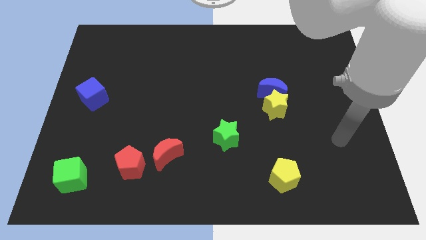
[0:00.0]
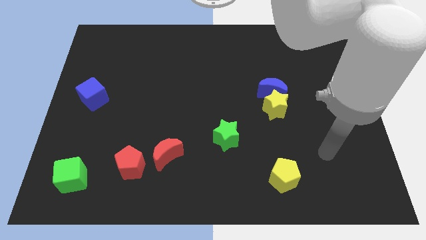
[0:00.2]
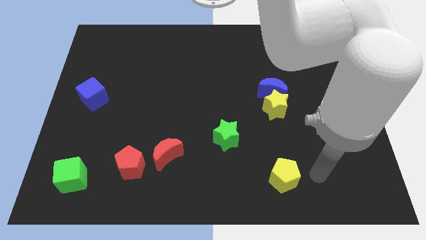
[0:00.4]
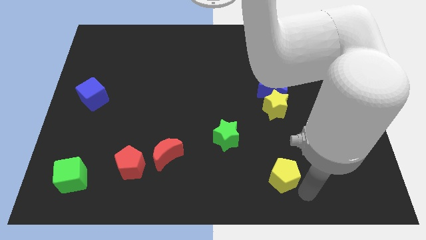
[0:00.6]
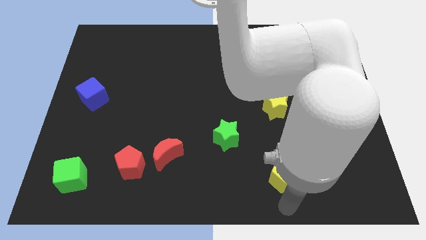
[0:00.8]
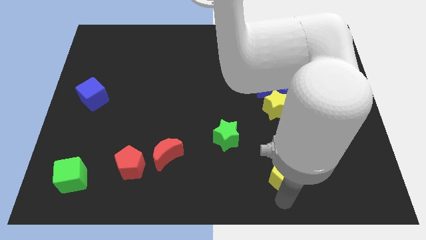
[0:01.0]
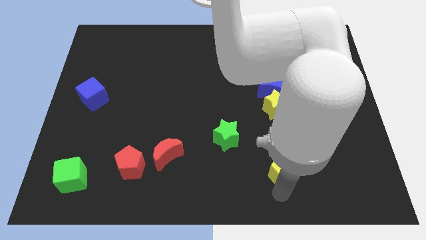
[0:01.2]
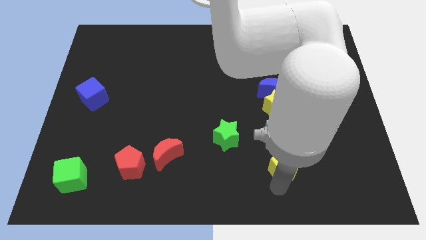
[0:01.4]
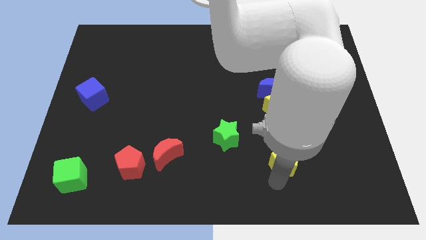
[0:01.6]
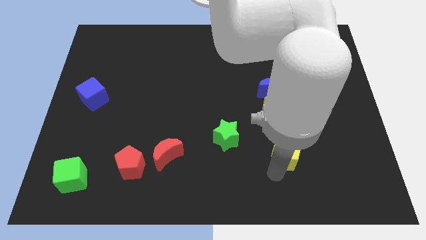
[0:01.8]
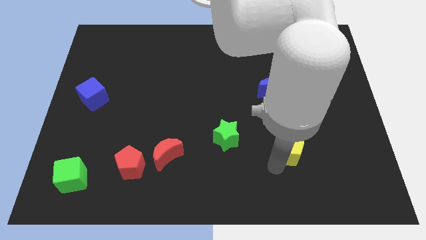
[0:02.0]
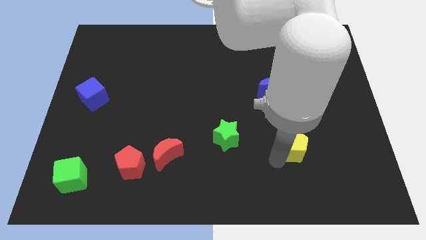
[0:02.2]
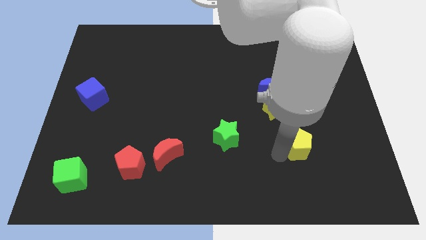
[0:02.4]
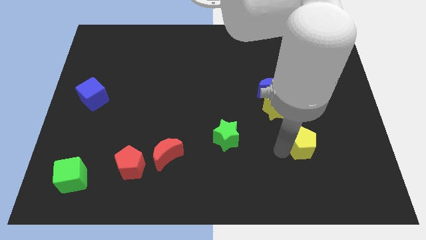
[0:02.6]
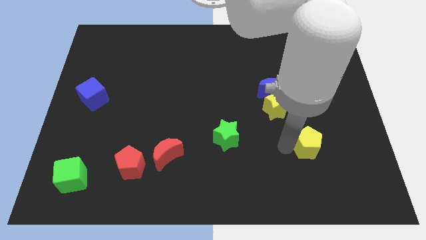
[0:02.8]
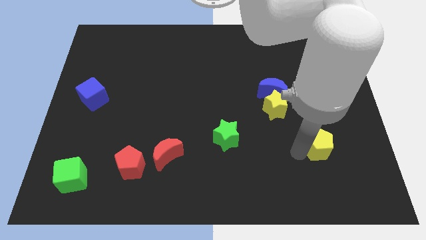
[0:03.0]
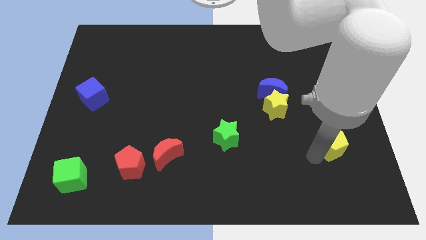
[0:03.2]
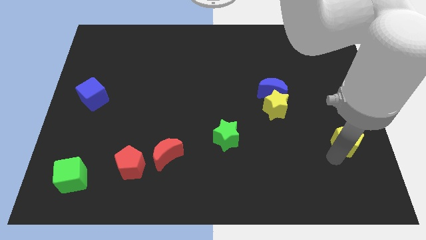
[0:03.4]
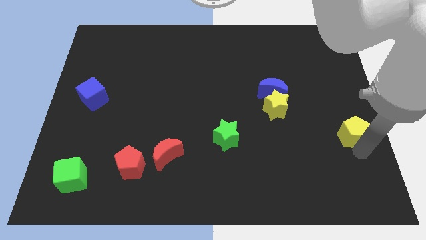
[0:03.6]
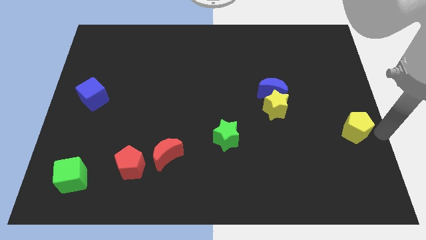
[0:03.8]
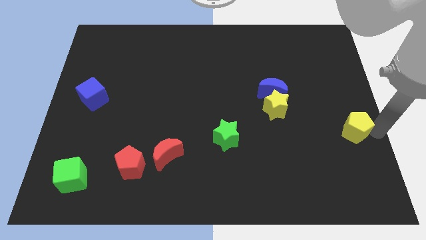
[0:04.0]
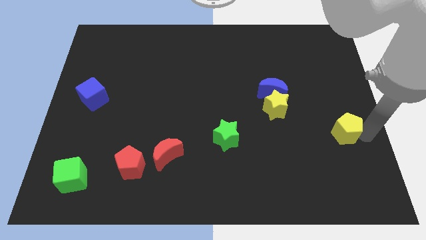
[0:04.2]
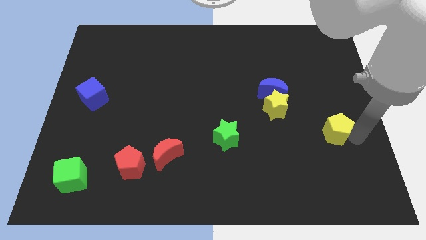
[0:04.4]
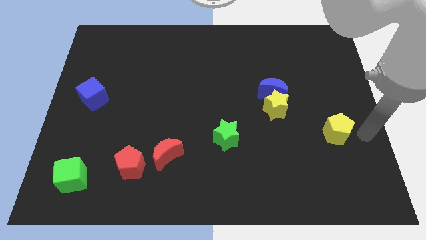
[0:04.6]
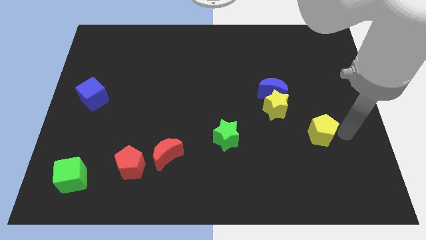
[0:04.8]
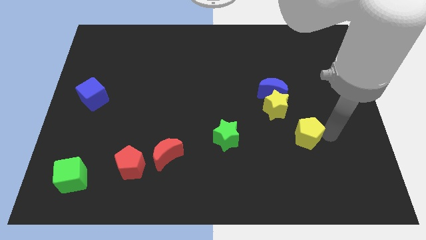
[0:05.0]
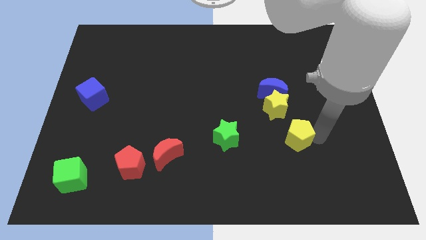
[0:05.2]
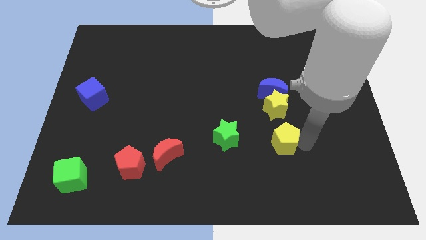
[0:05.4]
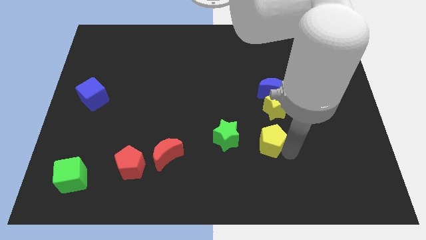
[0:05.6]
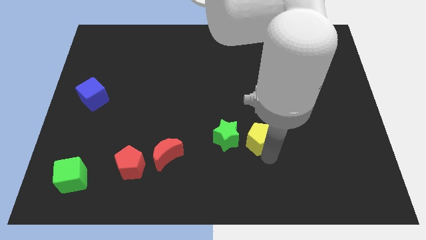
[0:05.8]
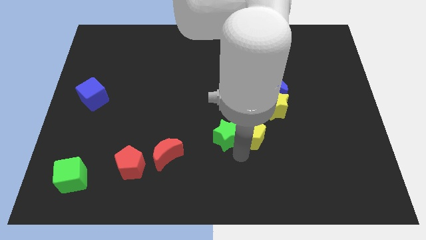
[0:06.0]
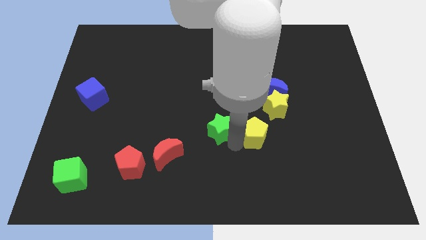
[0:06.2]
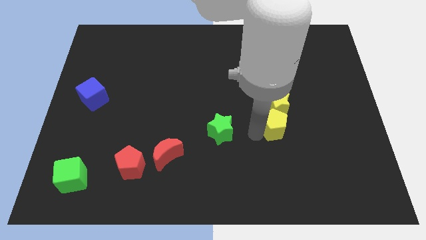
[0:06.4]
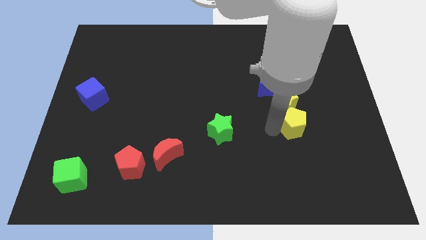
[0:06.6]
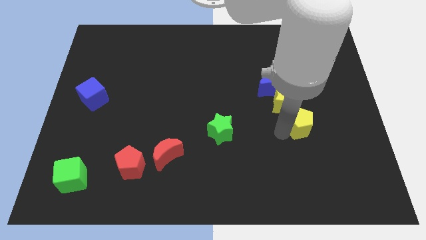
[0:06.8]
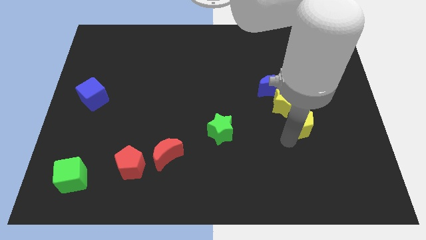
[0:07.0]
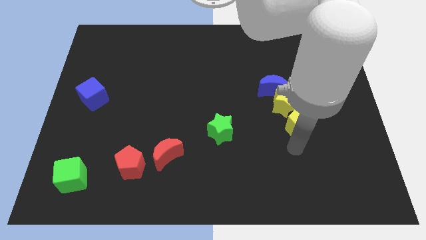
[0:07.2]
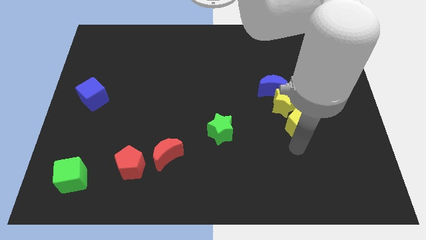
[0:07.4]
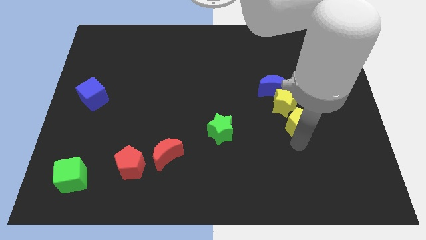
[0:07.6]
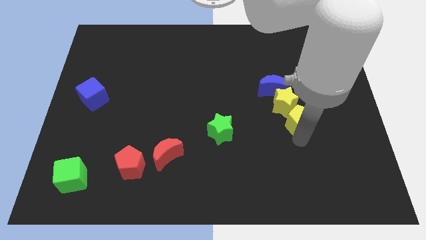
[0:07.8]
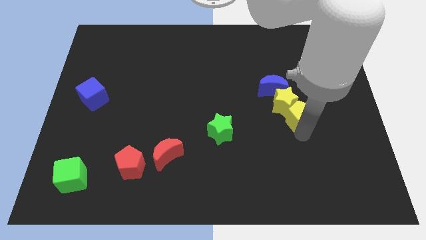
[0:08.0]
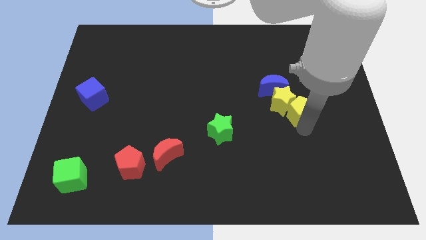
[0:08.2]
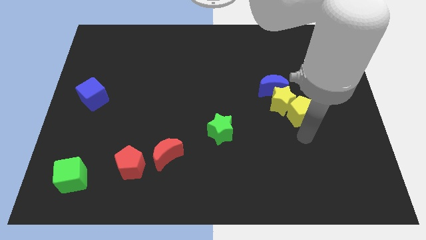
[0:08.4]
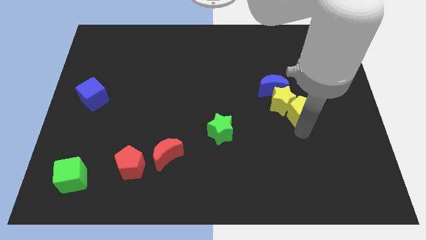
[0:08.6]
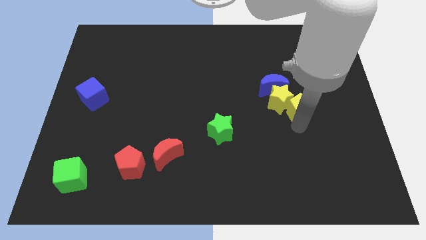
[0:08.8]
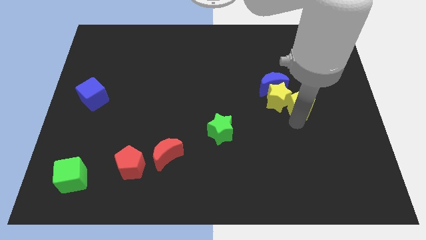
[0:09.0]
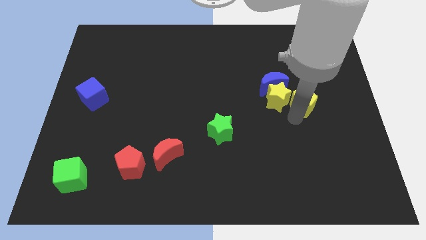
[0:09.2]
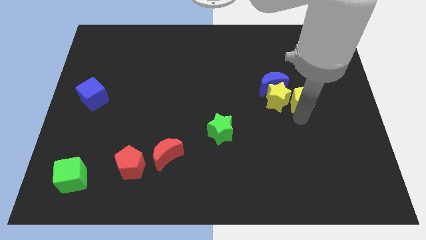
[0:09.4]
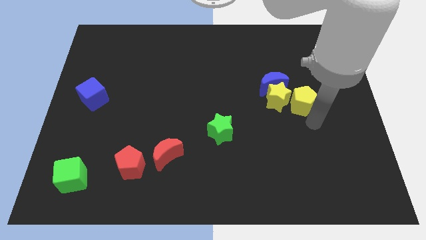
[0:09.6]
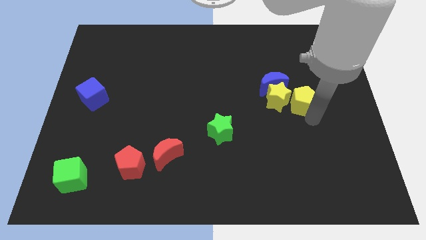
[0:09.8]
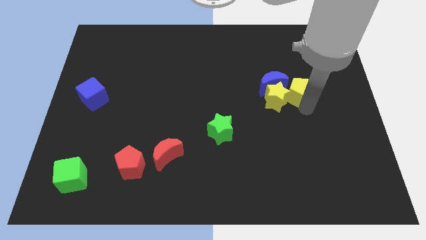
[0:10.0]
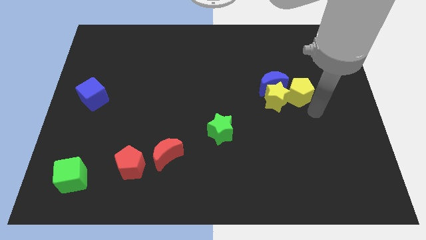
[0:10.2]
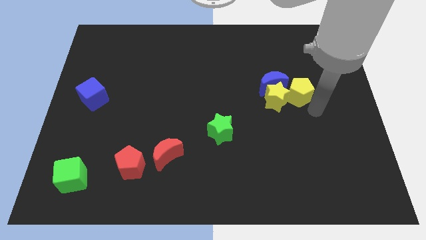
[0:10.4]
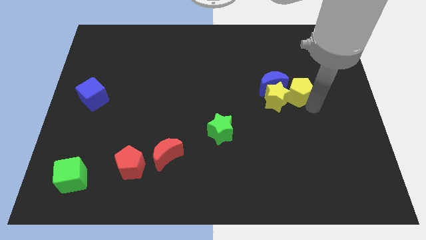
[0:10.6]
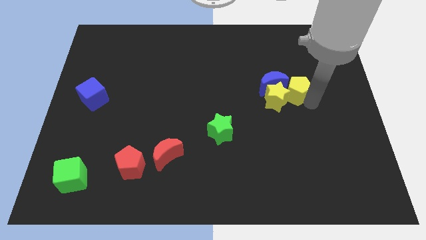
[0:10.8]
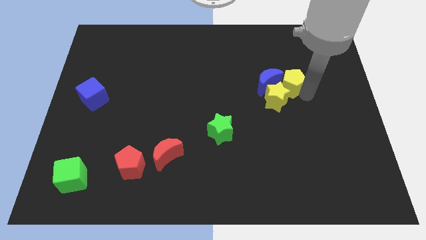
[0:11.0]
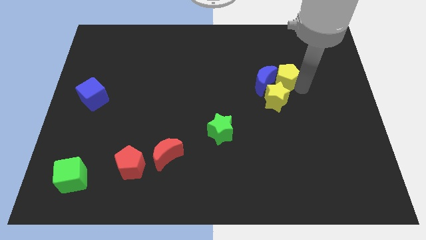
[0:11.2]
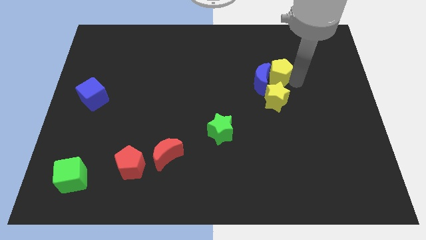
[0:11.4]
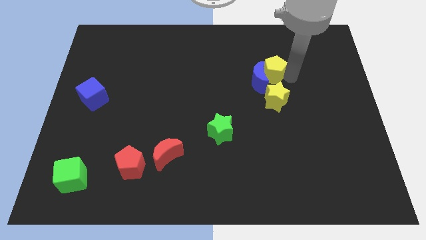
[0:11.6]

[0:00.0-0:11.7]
slide the yellow pentagon to the top side of the blue moon

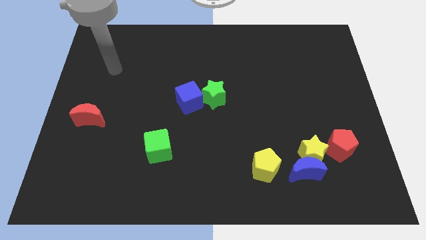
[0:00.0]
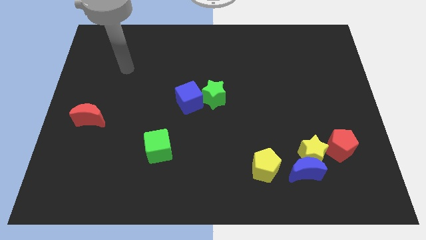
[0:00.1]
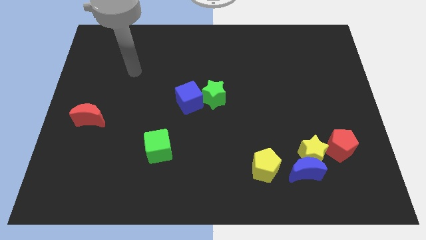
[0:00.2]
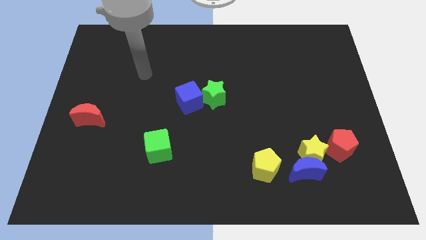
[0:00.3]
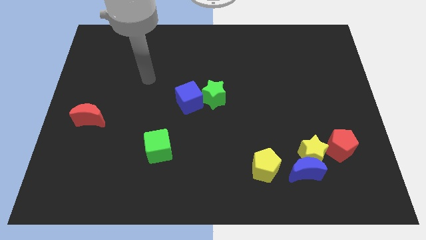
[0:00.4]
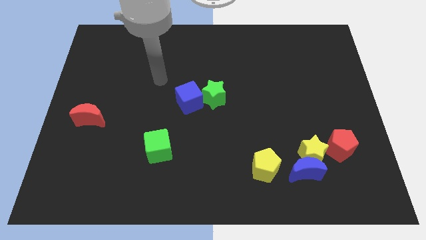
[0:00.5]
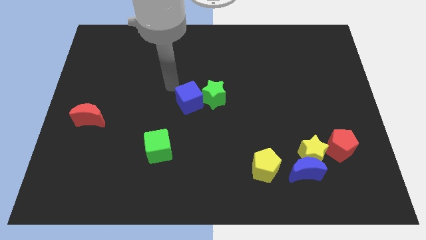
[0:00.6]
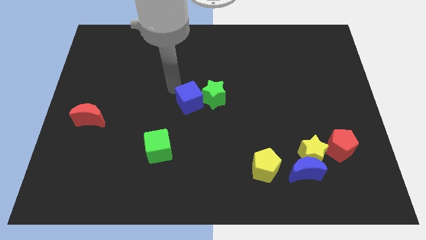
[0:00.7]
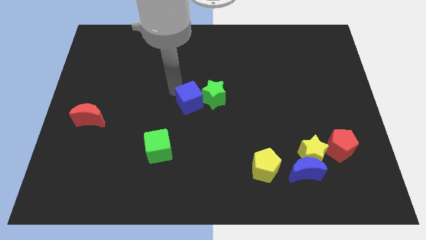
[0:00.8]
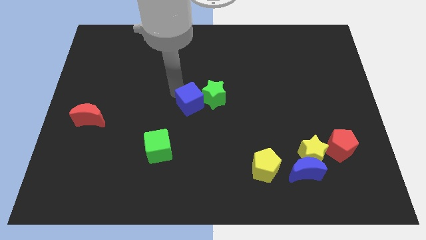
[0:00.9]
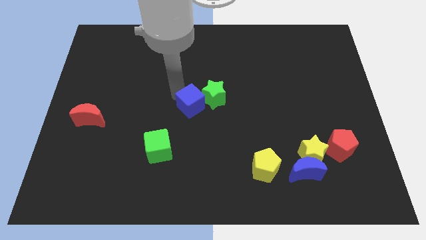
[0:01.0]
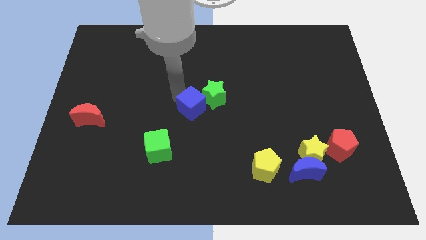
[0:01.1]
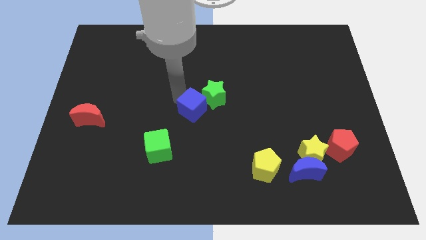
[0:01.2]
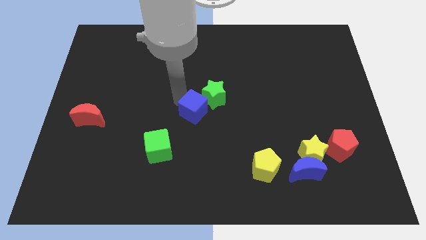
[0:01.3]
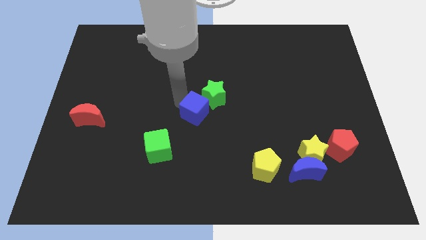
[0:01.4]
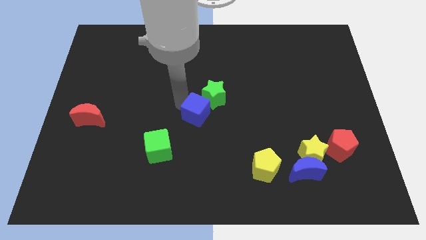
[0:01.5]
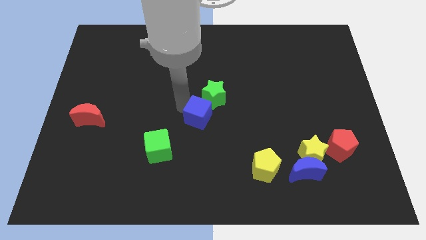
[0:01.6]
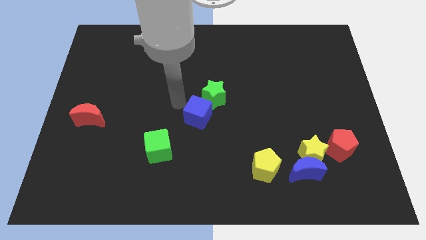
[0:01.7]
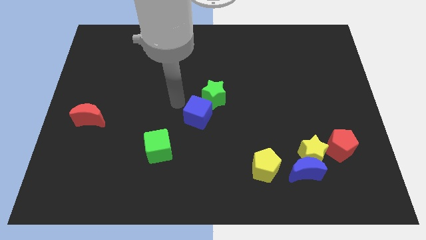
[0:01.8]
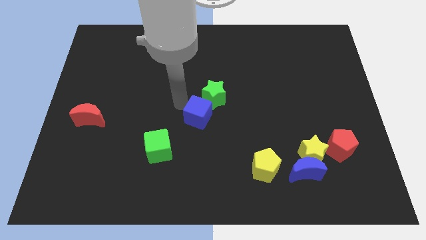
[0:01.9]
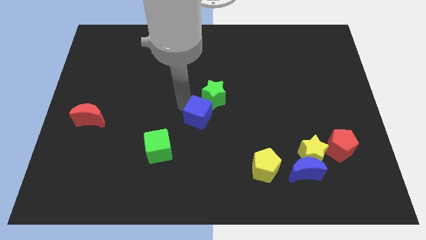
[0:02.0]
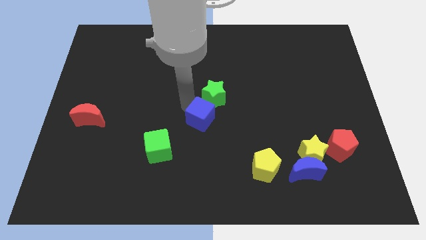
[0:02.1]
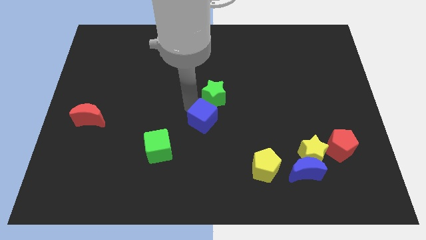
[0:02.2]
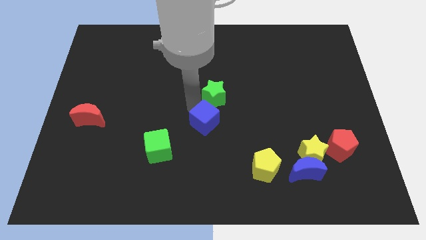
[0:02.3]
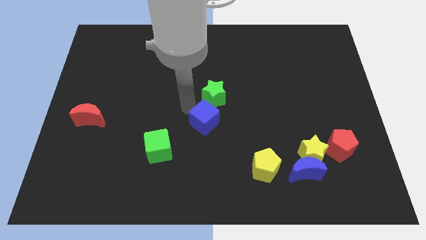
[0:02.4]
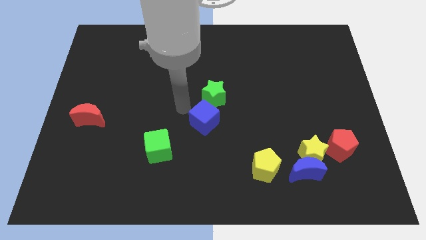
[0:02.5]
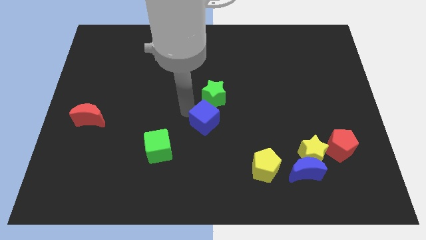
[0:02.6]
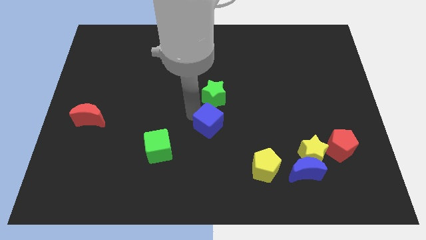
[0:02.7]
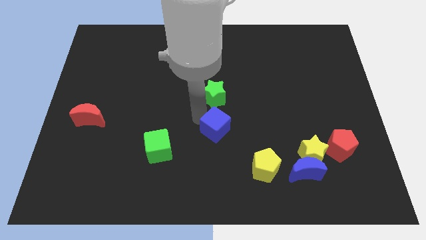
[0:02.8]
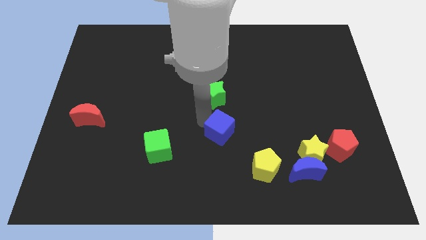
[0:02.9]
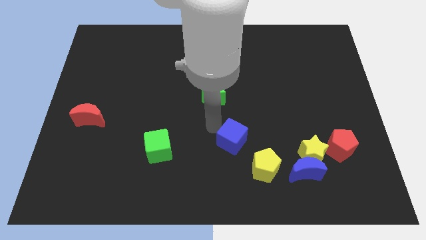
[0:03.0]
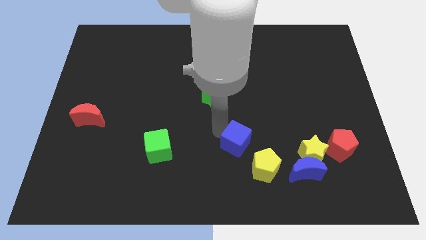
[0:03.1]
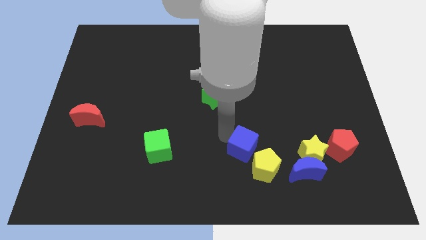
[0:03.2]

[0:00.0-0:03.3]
move the blue cube just left of the yellow star
